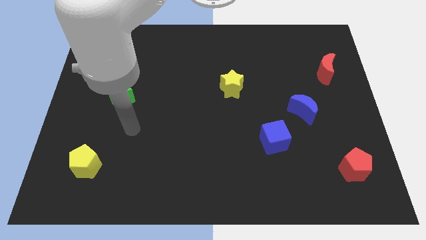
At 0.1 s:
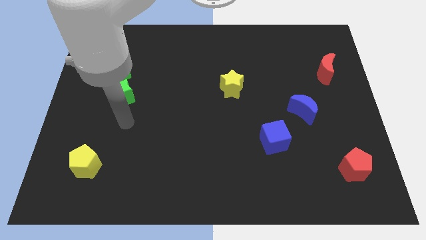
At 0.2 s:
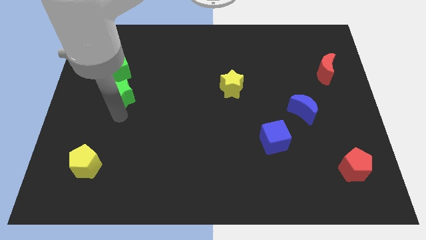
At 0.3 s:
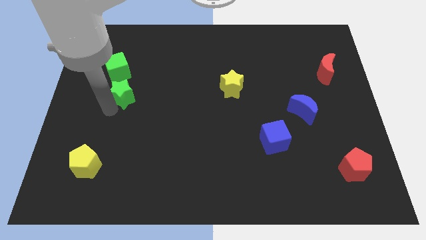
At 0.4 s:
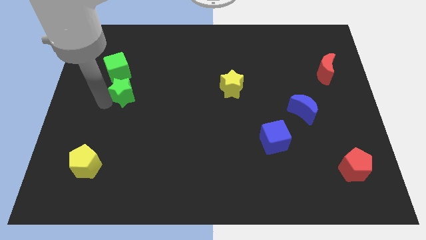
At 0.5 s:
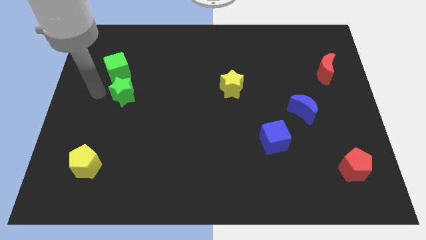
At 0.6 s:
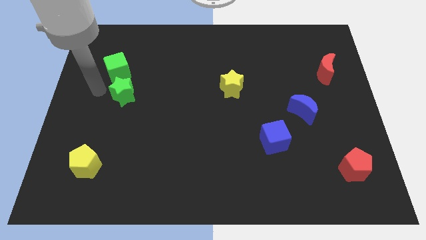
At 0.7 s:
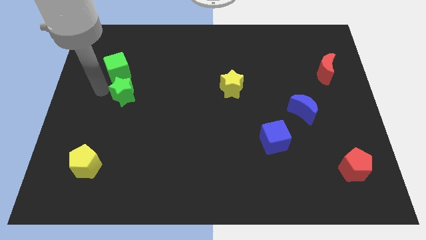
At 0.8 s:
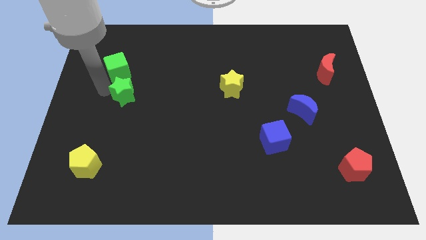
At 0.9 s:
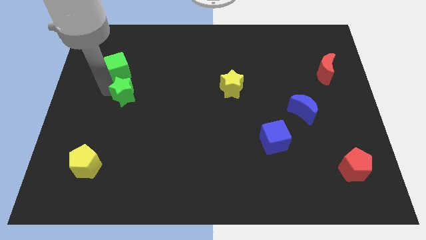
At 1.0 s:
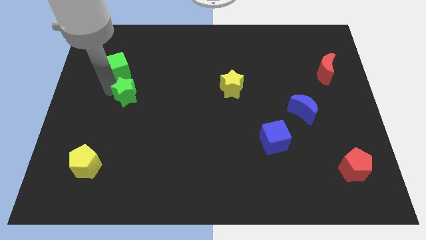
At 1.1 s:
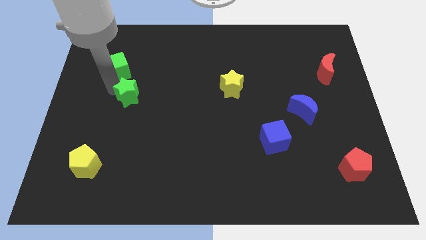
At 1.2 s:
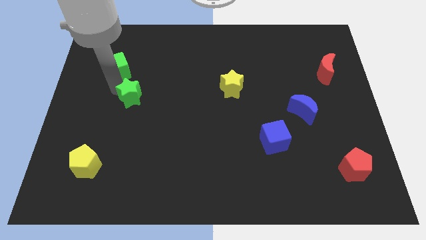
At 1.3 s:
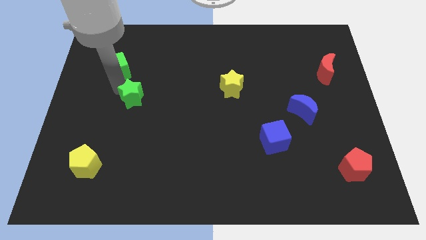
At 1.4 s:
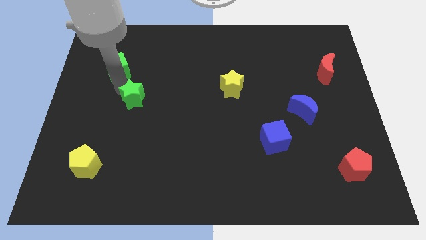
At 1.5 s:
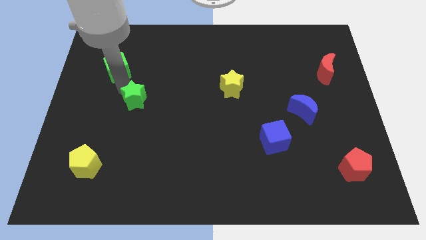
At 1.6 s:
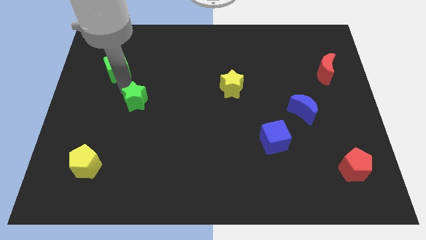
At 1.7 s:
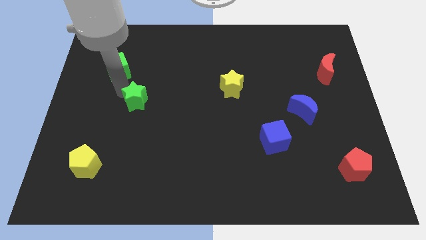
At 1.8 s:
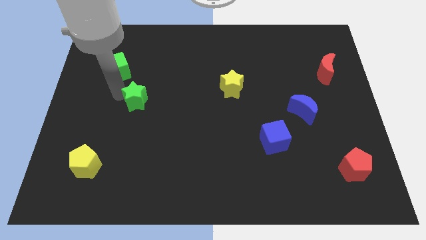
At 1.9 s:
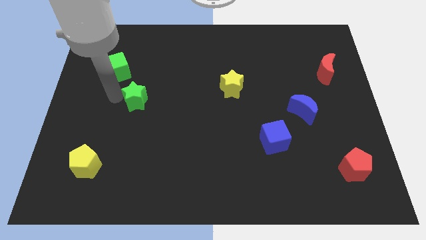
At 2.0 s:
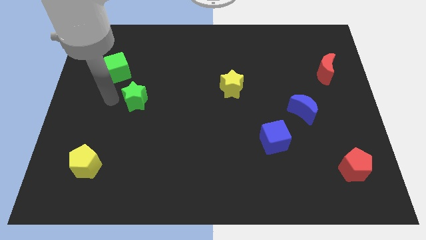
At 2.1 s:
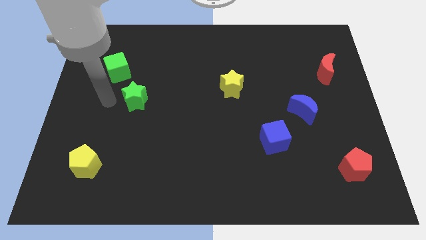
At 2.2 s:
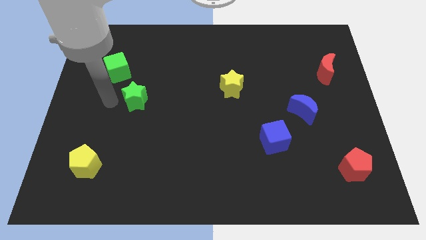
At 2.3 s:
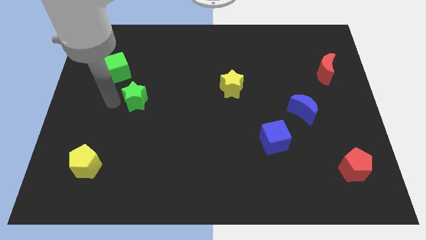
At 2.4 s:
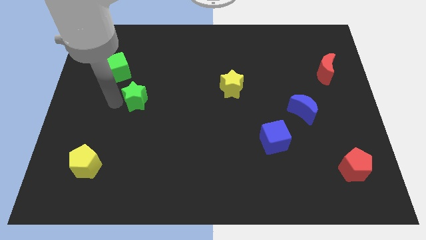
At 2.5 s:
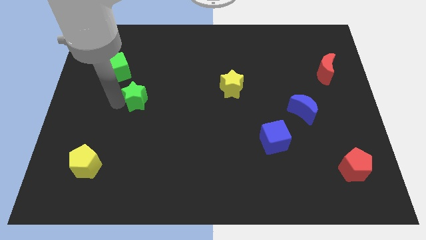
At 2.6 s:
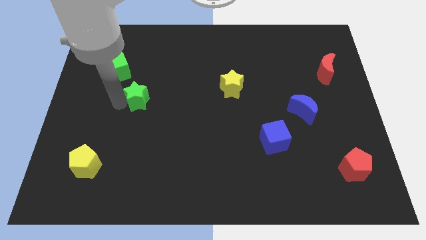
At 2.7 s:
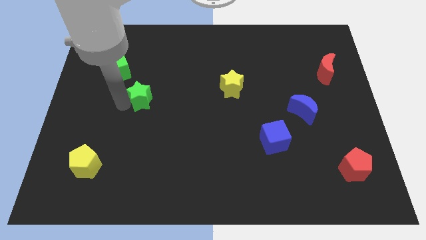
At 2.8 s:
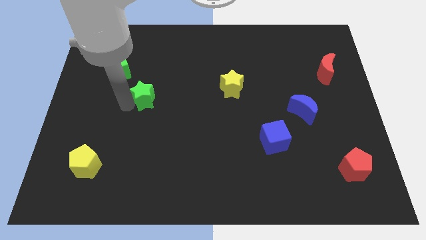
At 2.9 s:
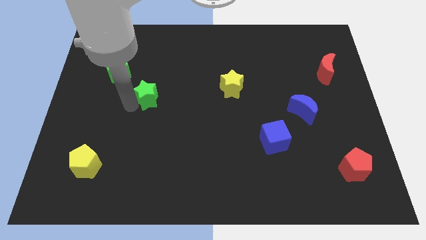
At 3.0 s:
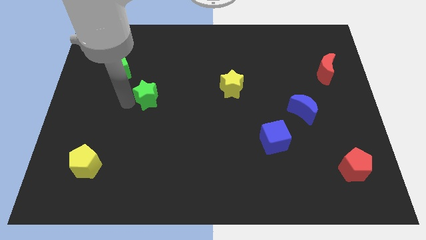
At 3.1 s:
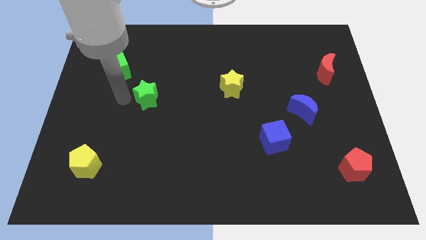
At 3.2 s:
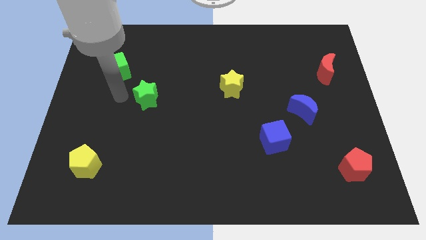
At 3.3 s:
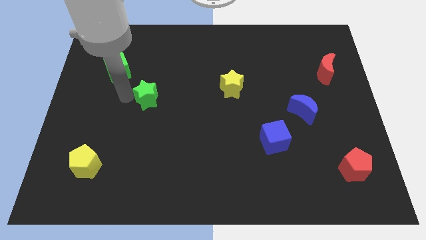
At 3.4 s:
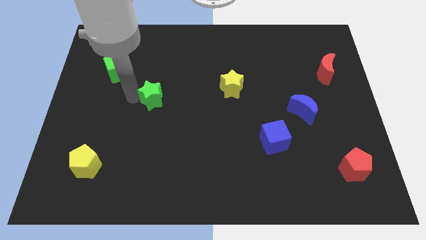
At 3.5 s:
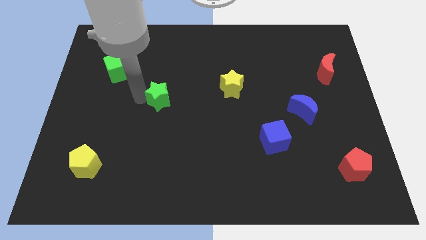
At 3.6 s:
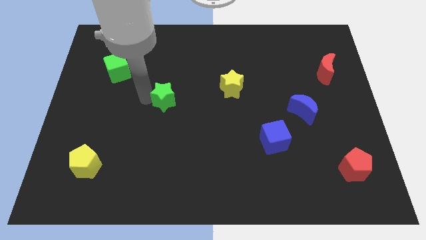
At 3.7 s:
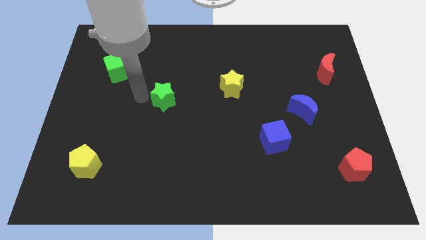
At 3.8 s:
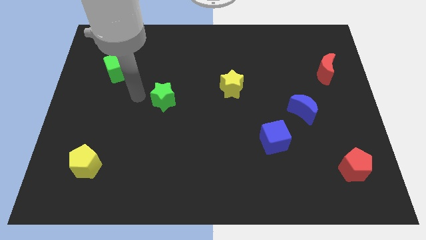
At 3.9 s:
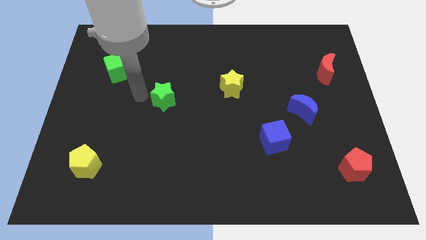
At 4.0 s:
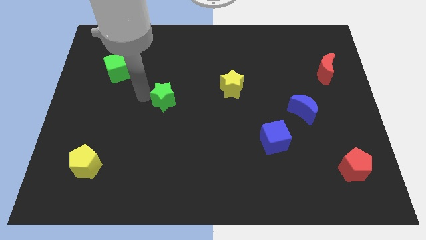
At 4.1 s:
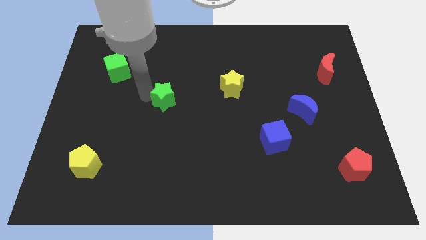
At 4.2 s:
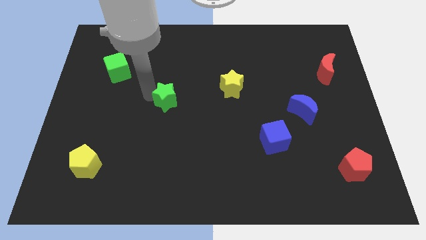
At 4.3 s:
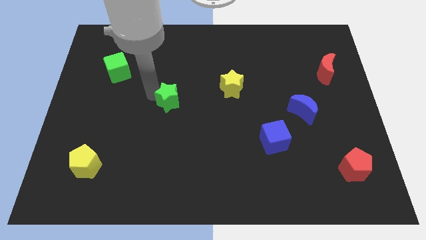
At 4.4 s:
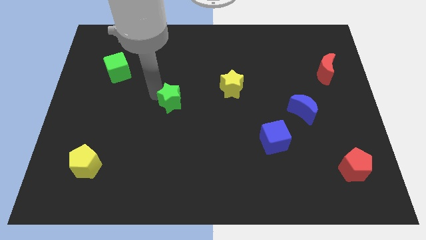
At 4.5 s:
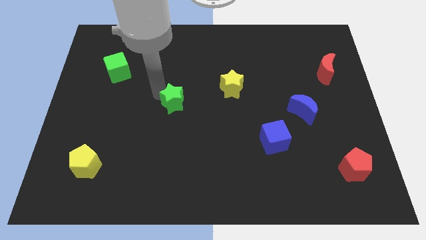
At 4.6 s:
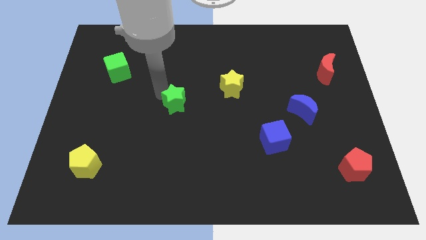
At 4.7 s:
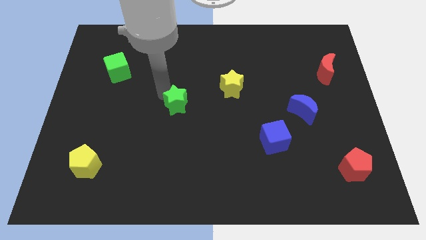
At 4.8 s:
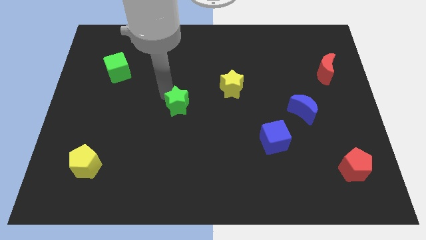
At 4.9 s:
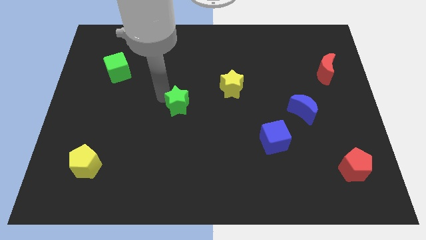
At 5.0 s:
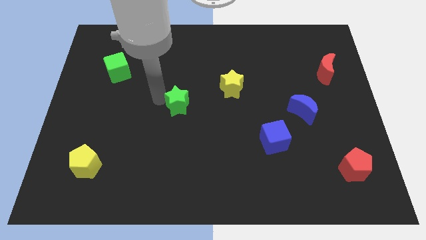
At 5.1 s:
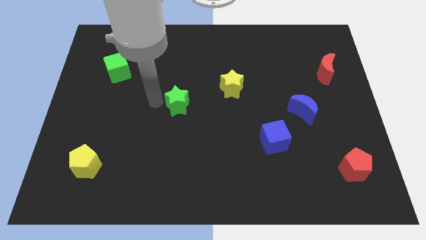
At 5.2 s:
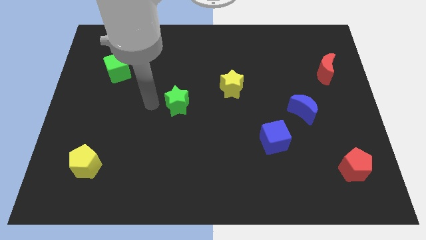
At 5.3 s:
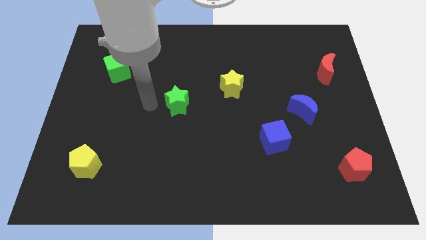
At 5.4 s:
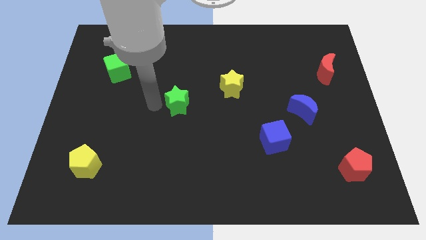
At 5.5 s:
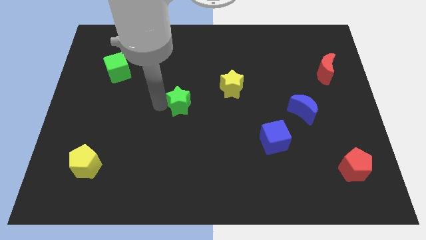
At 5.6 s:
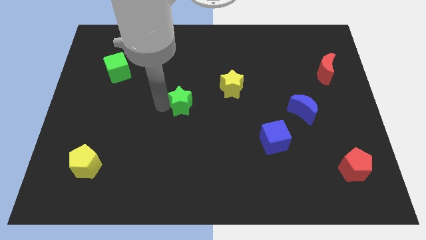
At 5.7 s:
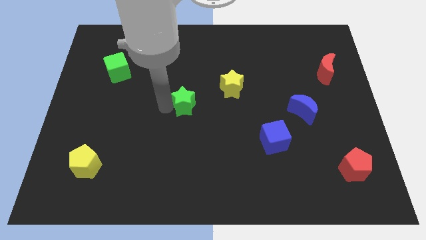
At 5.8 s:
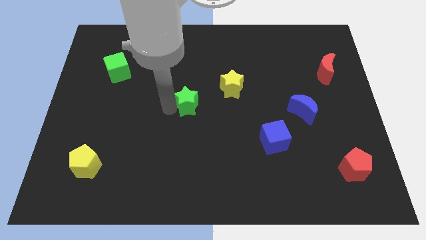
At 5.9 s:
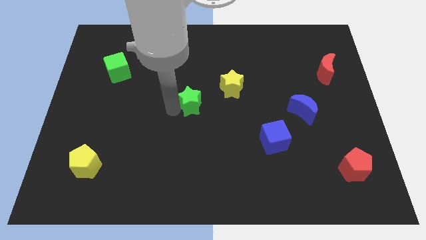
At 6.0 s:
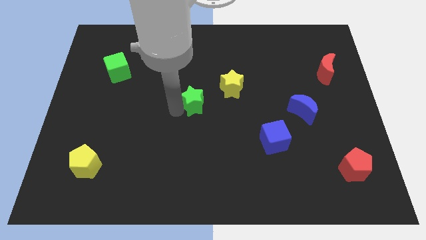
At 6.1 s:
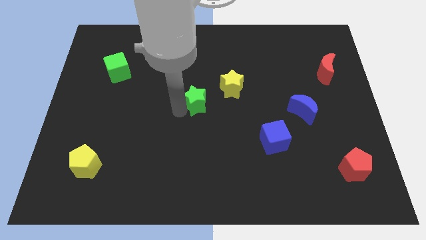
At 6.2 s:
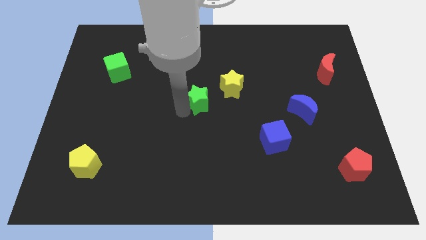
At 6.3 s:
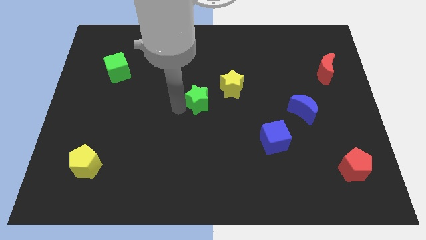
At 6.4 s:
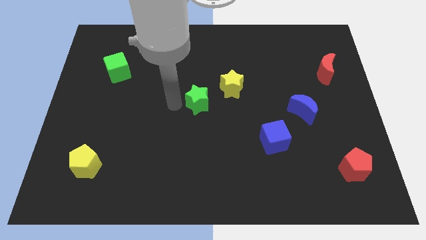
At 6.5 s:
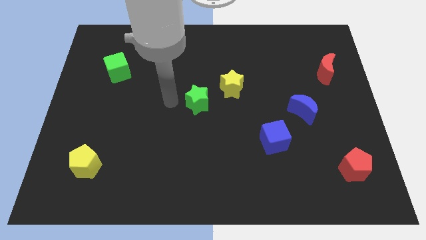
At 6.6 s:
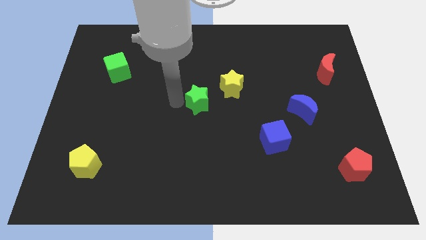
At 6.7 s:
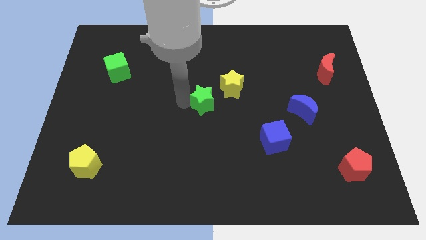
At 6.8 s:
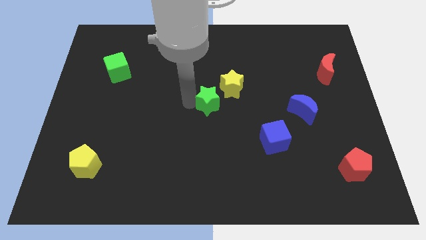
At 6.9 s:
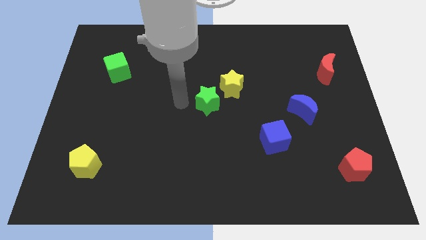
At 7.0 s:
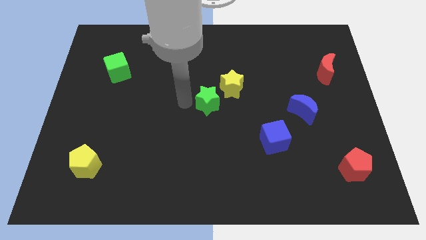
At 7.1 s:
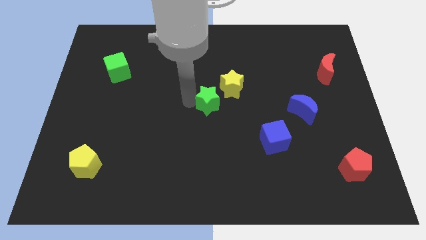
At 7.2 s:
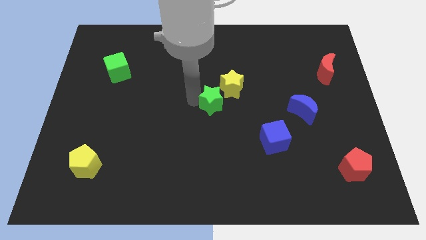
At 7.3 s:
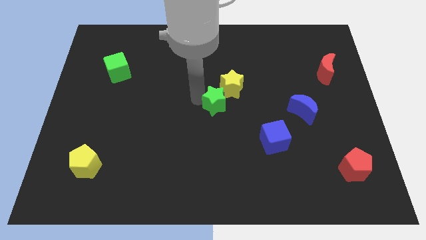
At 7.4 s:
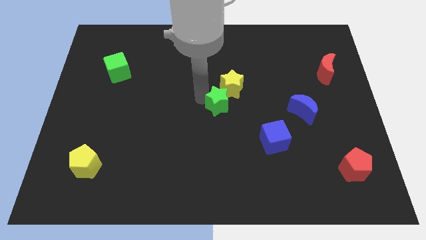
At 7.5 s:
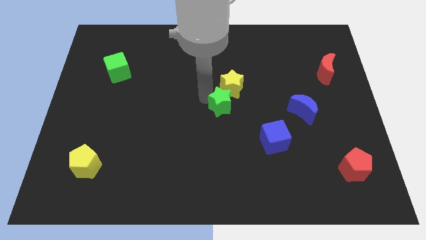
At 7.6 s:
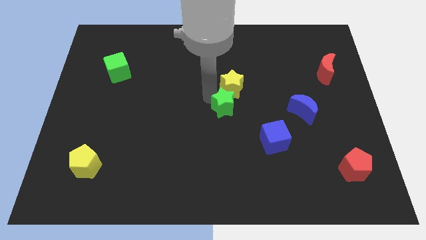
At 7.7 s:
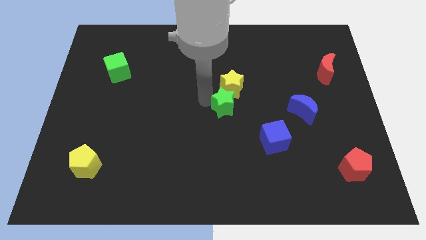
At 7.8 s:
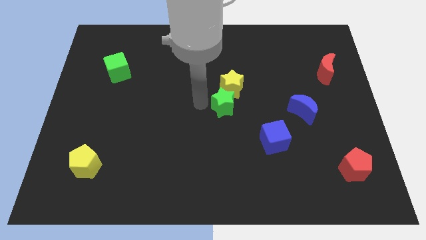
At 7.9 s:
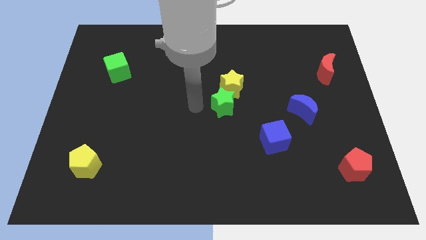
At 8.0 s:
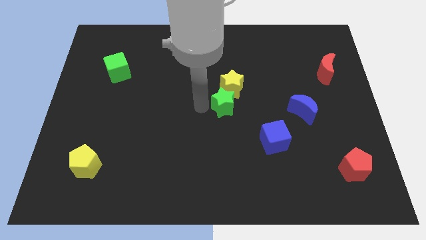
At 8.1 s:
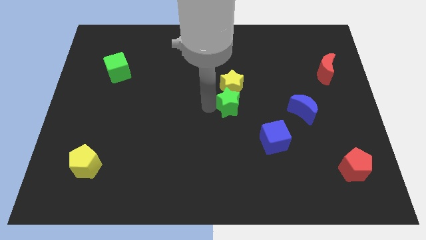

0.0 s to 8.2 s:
move the green star diagonally down and to the right of the yellow star
